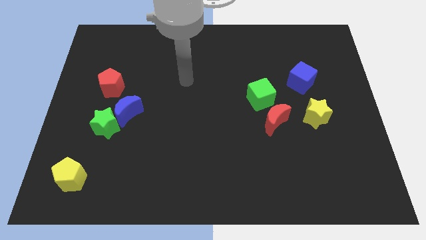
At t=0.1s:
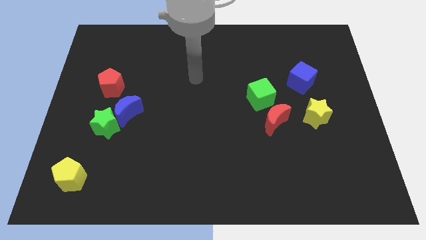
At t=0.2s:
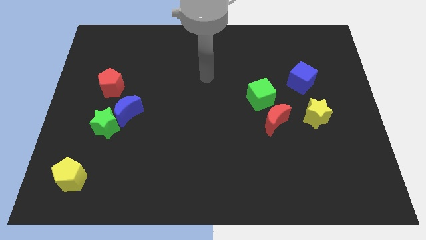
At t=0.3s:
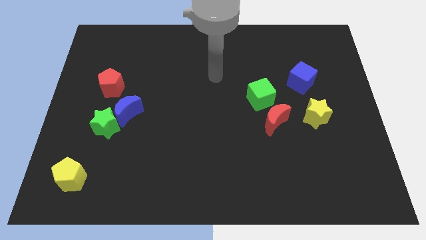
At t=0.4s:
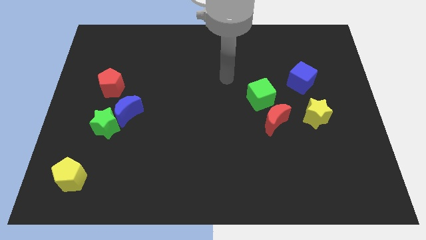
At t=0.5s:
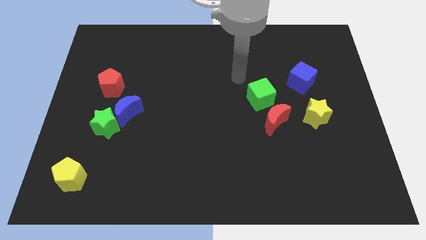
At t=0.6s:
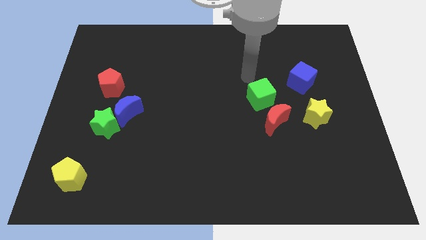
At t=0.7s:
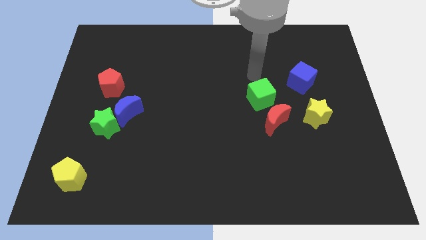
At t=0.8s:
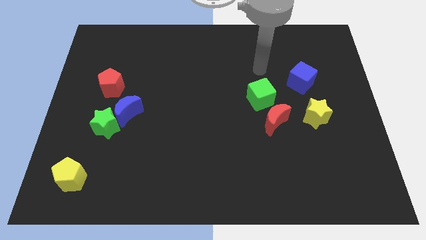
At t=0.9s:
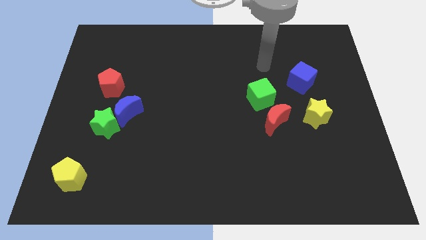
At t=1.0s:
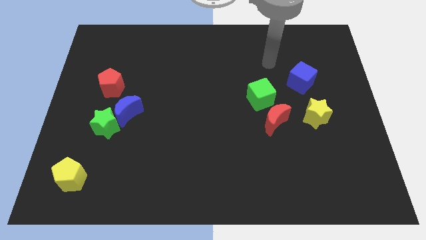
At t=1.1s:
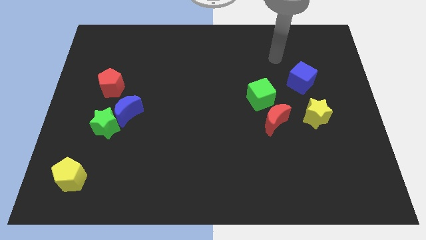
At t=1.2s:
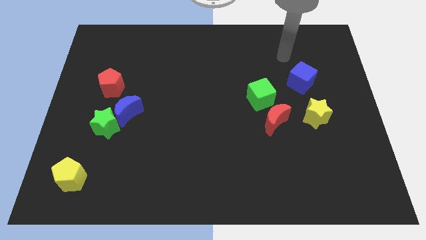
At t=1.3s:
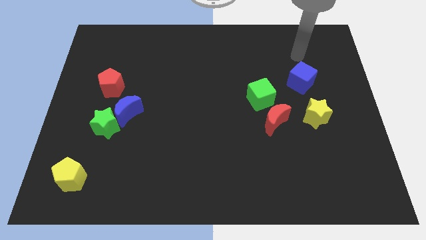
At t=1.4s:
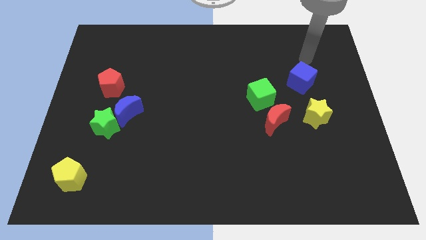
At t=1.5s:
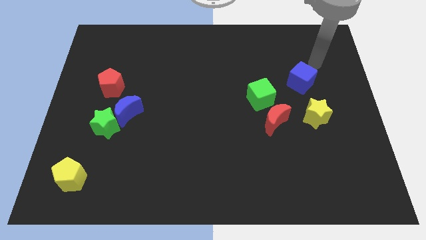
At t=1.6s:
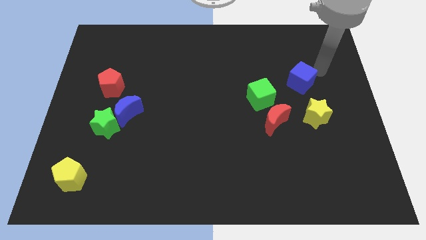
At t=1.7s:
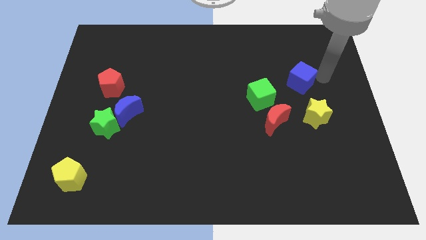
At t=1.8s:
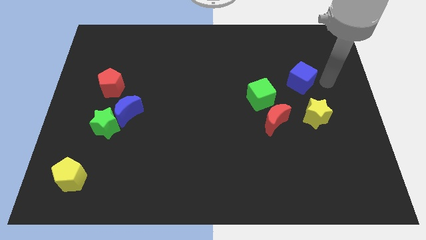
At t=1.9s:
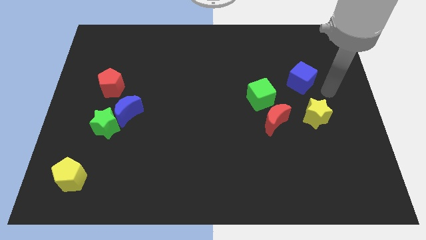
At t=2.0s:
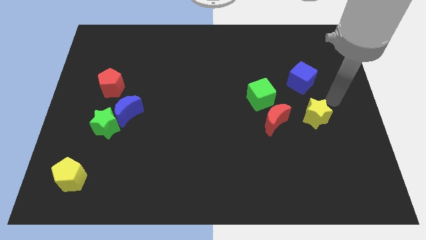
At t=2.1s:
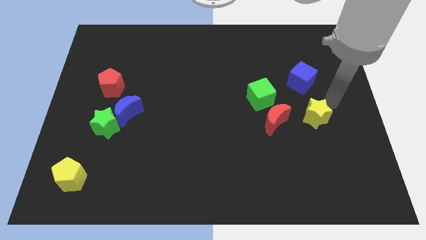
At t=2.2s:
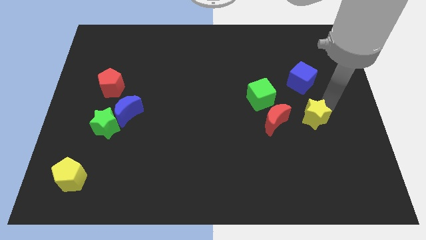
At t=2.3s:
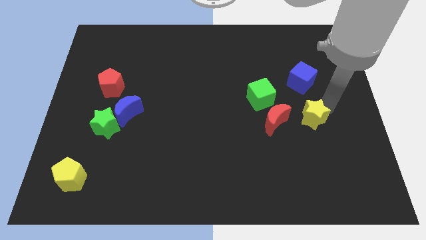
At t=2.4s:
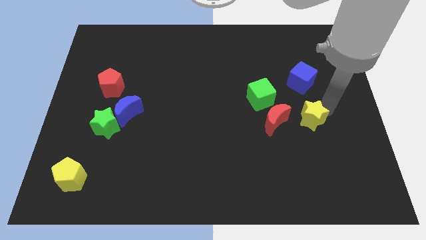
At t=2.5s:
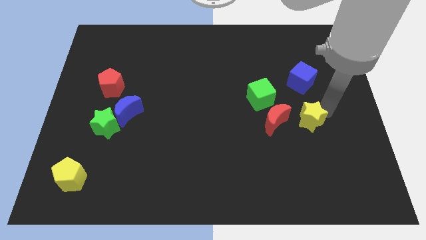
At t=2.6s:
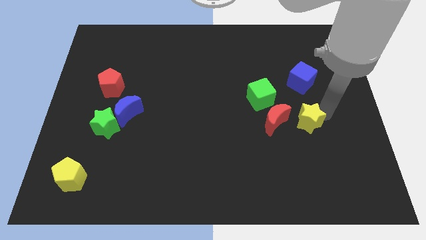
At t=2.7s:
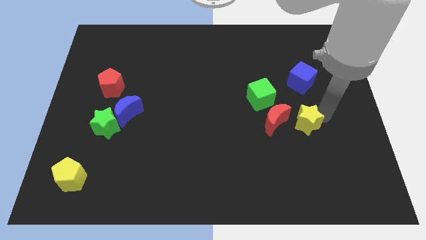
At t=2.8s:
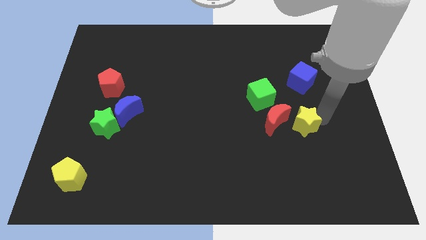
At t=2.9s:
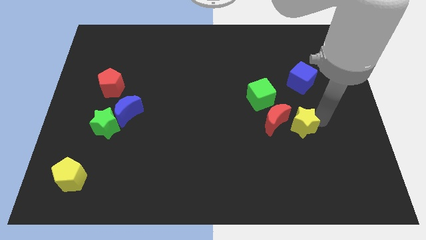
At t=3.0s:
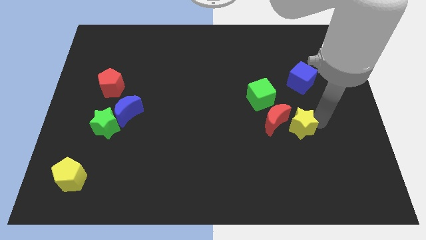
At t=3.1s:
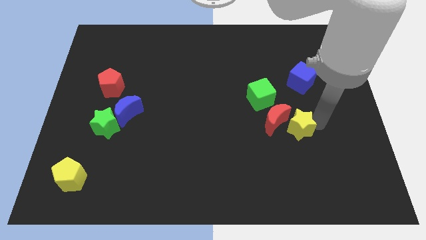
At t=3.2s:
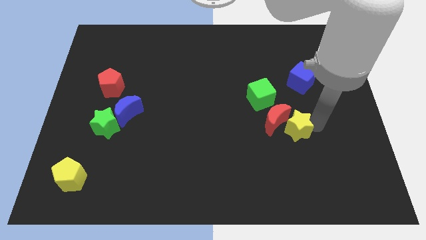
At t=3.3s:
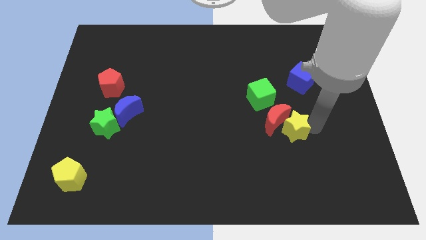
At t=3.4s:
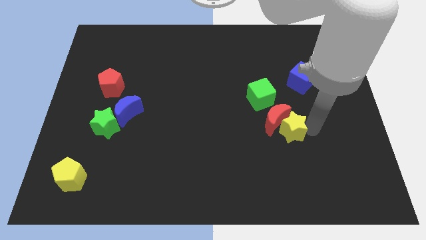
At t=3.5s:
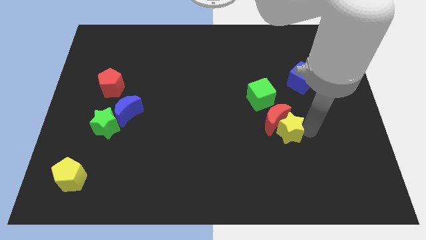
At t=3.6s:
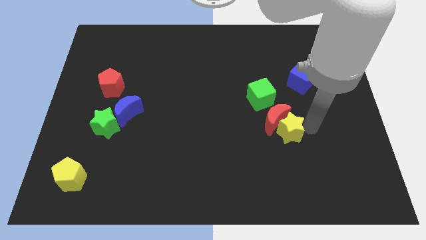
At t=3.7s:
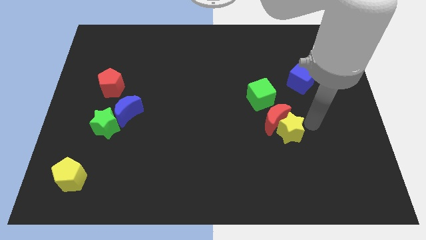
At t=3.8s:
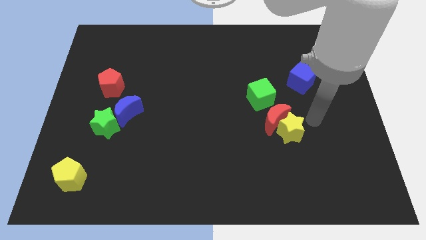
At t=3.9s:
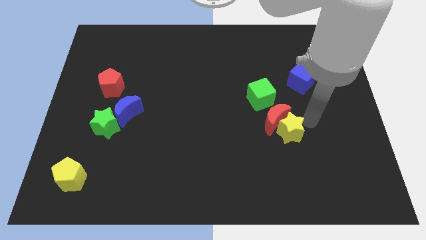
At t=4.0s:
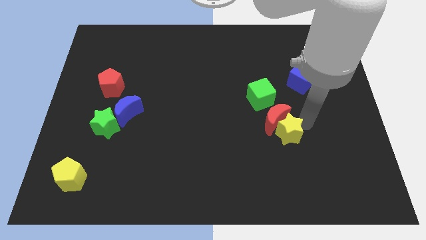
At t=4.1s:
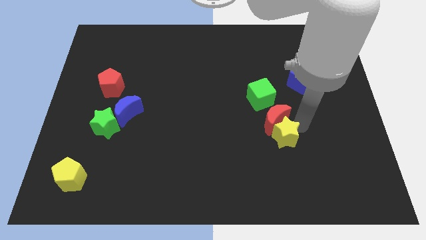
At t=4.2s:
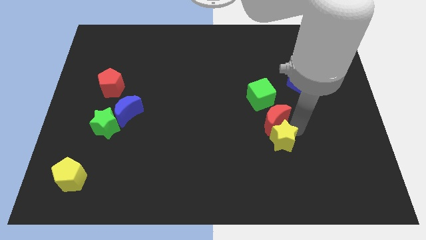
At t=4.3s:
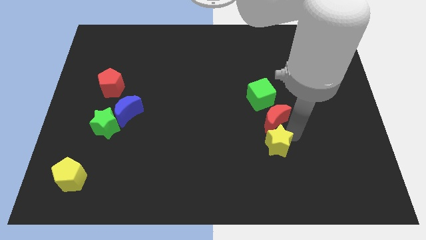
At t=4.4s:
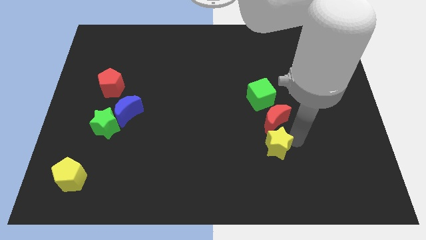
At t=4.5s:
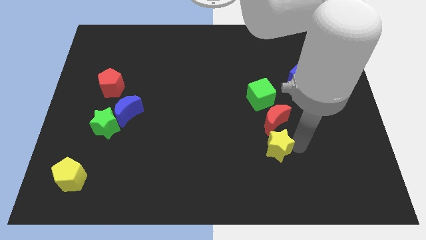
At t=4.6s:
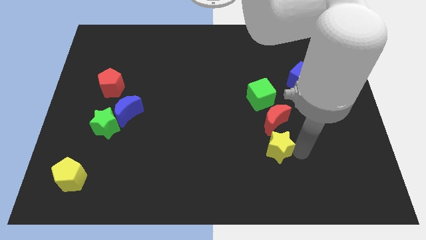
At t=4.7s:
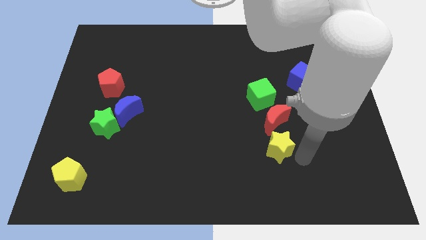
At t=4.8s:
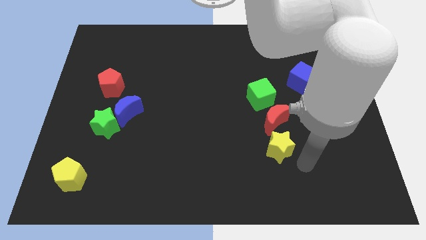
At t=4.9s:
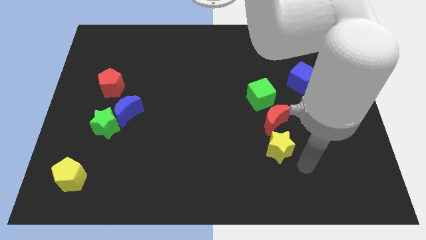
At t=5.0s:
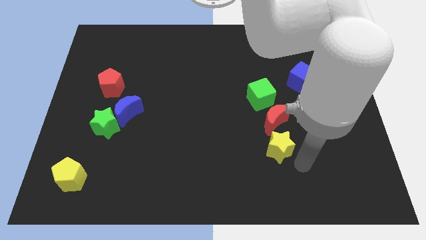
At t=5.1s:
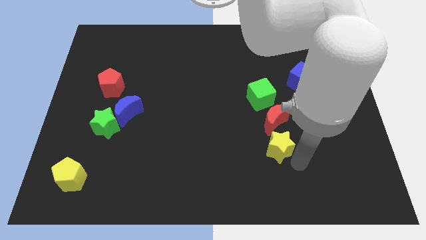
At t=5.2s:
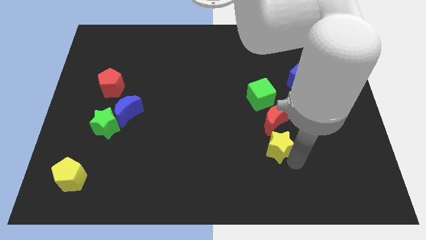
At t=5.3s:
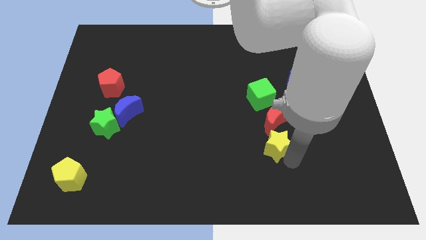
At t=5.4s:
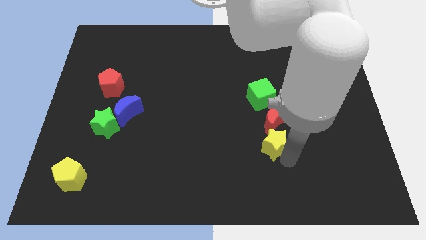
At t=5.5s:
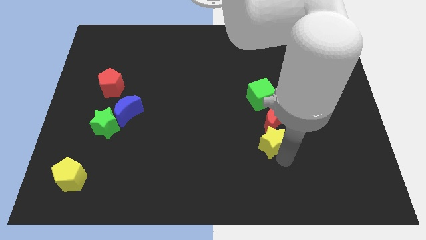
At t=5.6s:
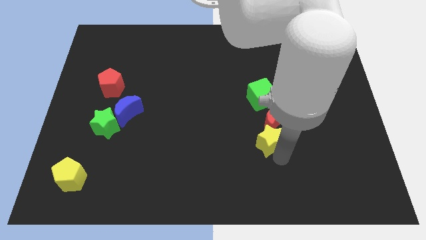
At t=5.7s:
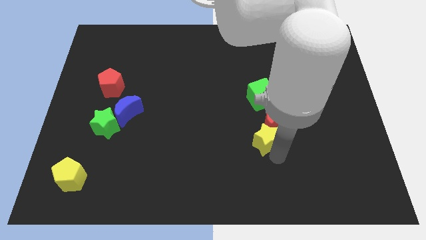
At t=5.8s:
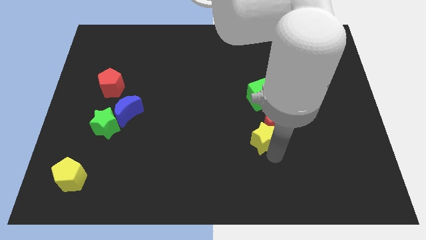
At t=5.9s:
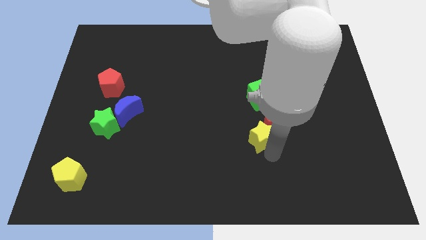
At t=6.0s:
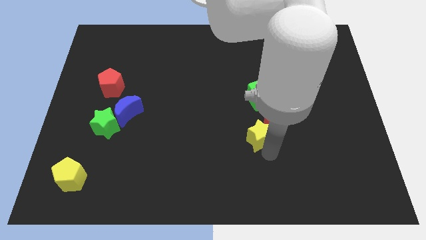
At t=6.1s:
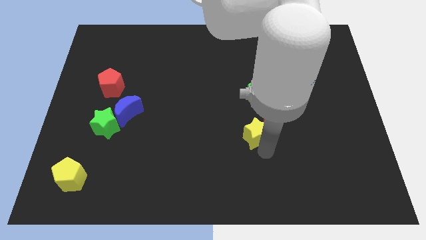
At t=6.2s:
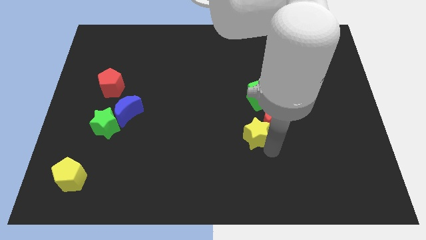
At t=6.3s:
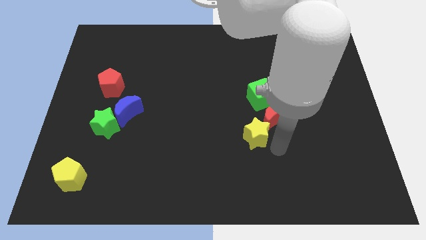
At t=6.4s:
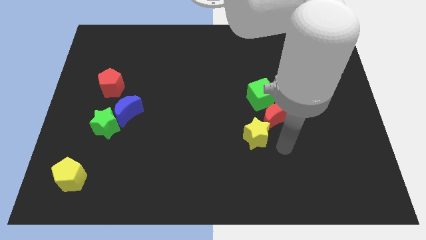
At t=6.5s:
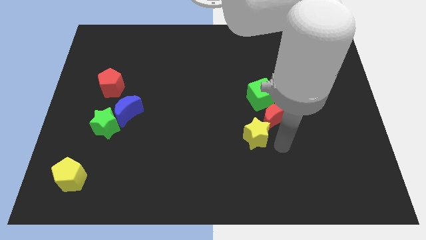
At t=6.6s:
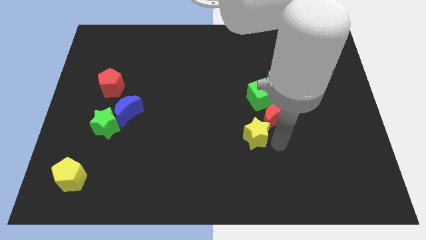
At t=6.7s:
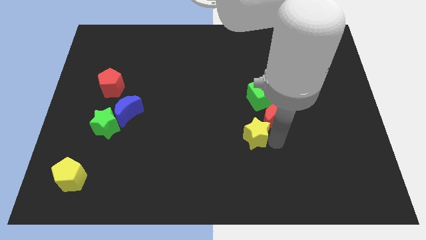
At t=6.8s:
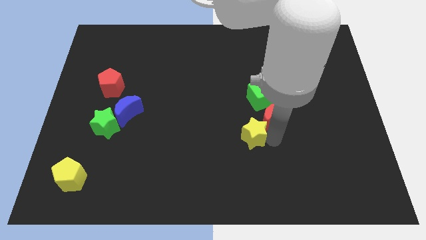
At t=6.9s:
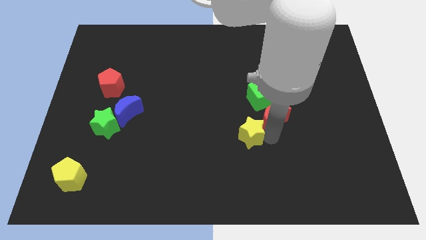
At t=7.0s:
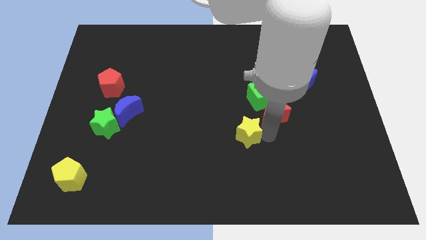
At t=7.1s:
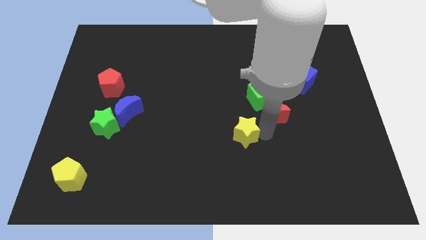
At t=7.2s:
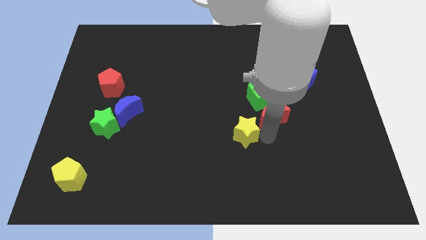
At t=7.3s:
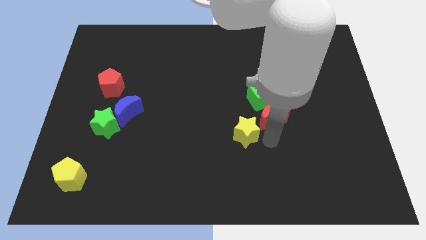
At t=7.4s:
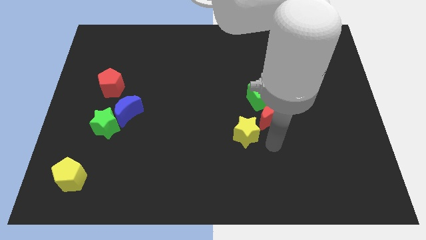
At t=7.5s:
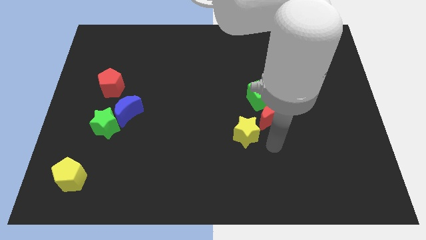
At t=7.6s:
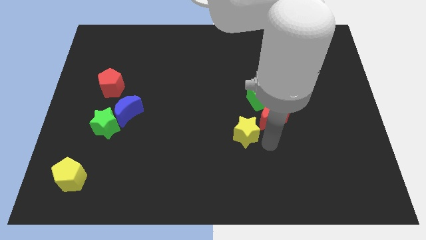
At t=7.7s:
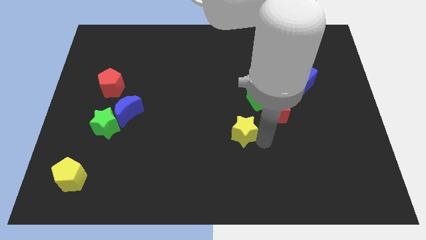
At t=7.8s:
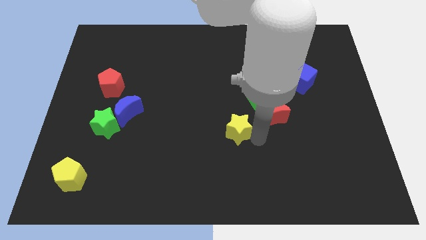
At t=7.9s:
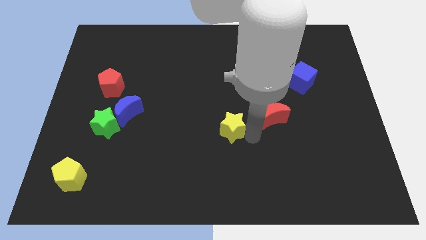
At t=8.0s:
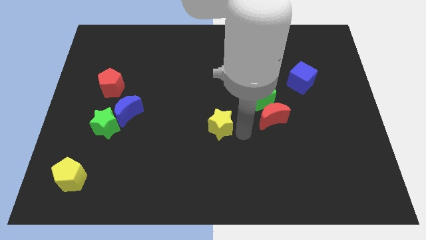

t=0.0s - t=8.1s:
move the yellow star to the left
